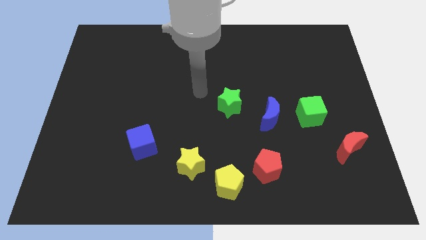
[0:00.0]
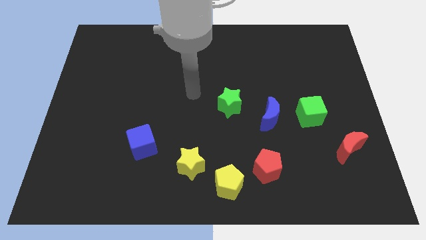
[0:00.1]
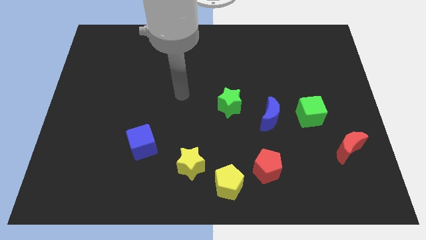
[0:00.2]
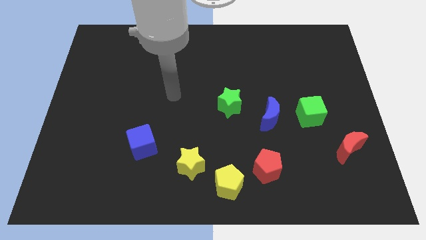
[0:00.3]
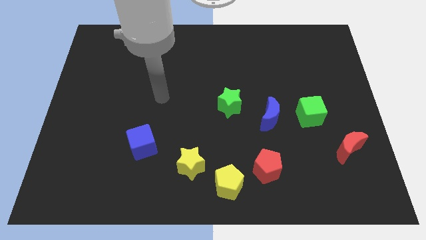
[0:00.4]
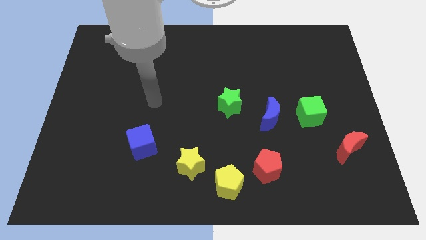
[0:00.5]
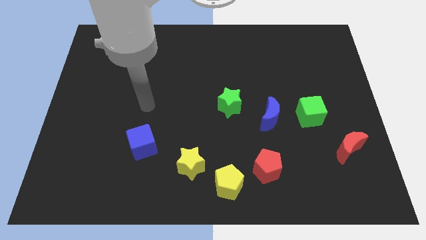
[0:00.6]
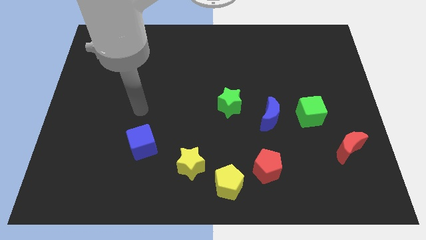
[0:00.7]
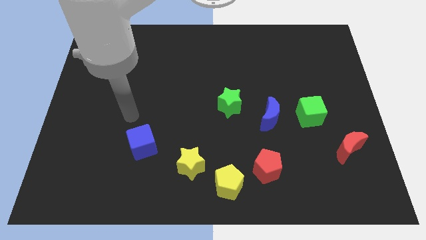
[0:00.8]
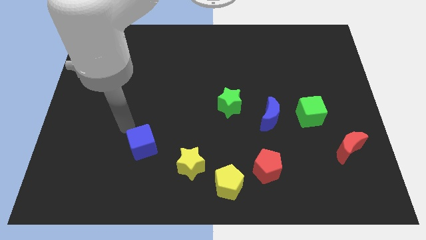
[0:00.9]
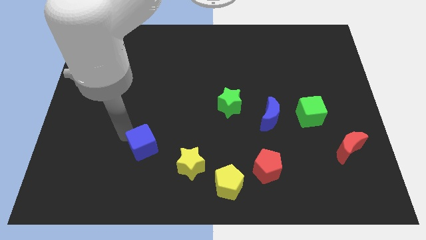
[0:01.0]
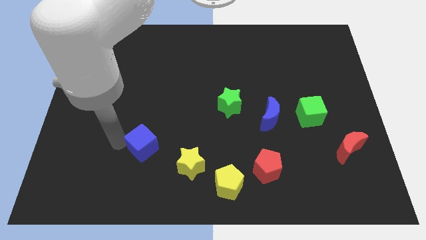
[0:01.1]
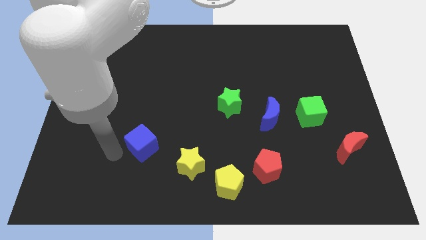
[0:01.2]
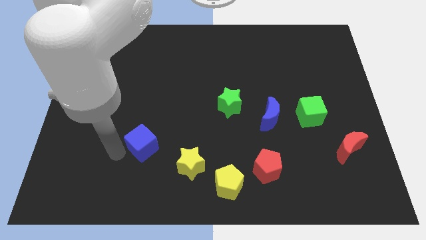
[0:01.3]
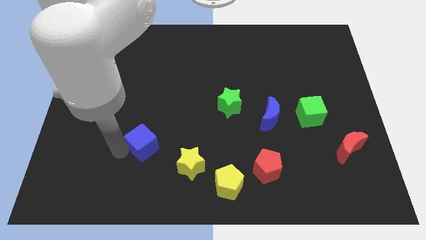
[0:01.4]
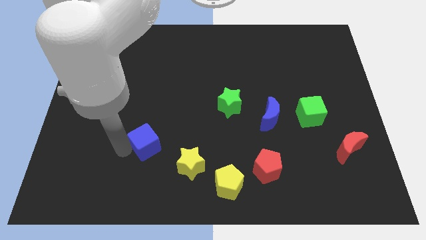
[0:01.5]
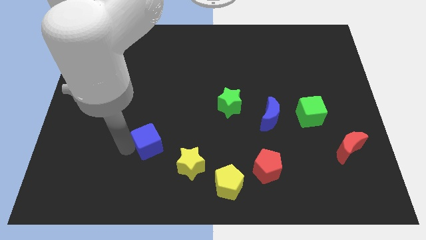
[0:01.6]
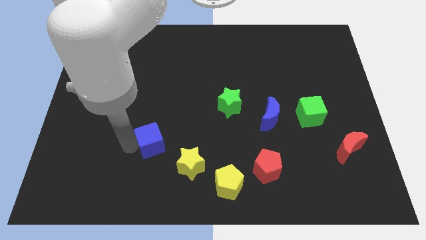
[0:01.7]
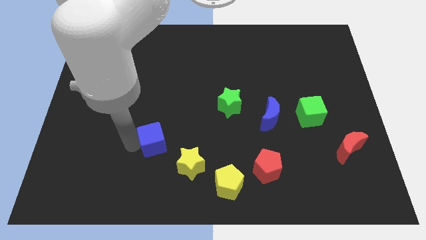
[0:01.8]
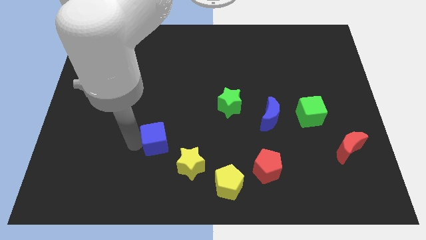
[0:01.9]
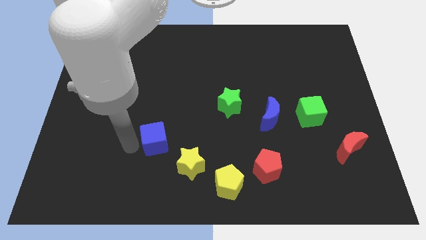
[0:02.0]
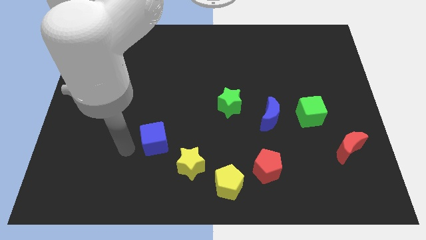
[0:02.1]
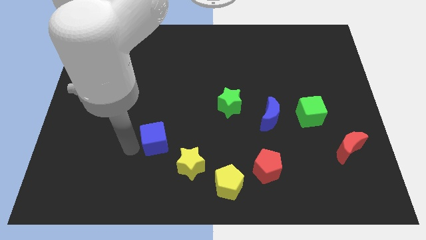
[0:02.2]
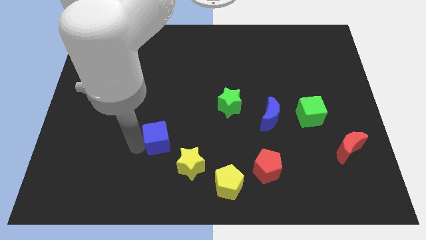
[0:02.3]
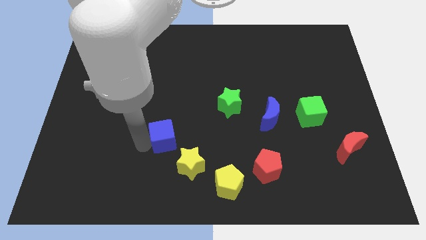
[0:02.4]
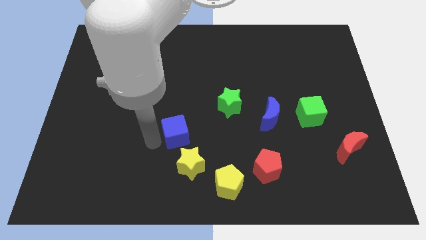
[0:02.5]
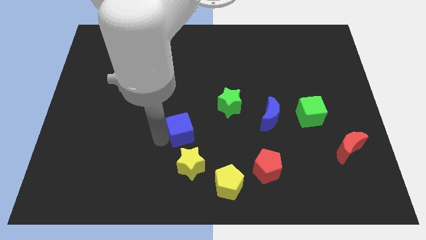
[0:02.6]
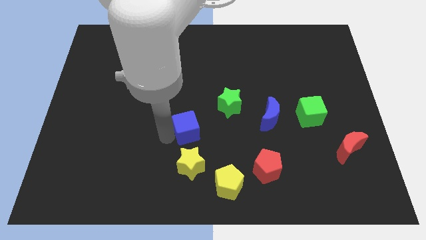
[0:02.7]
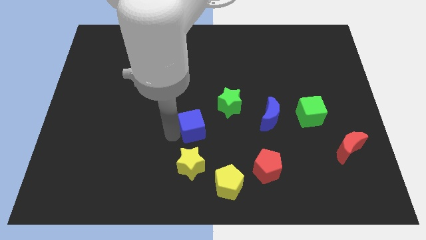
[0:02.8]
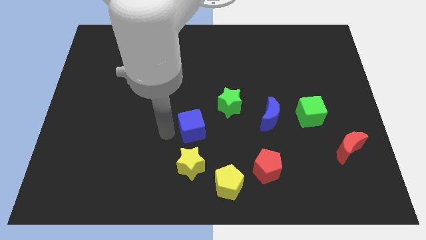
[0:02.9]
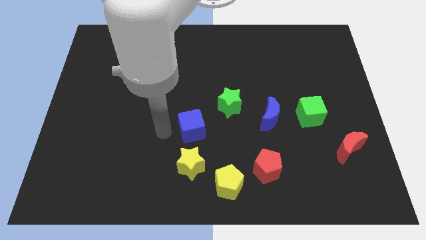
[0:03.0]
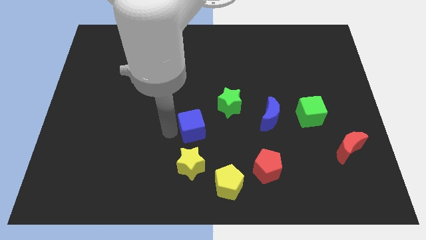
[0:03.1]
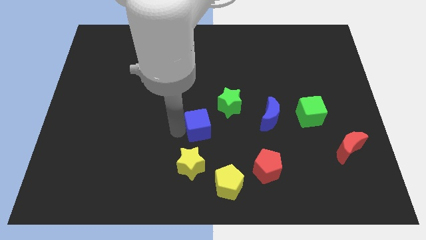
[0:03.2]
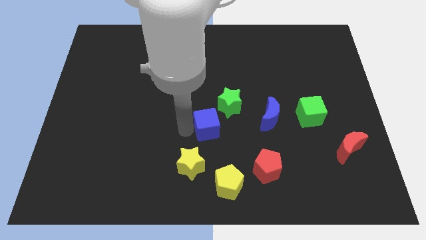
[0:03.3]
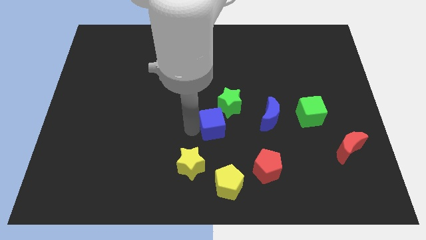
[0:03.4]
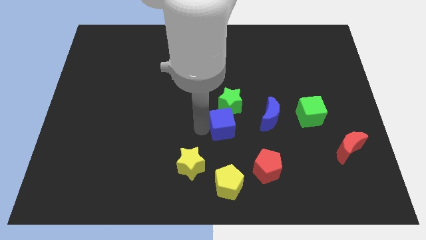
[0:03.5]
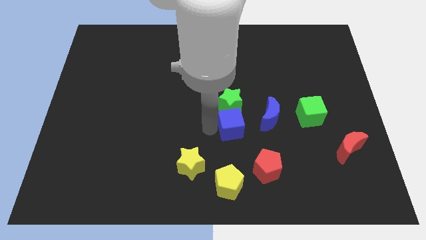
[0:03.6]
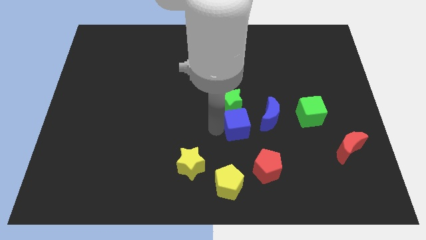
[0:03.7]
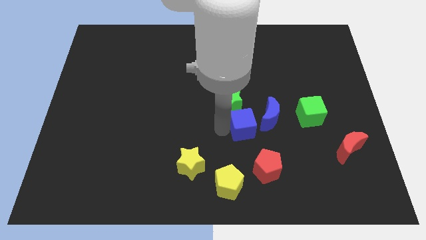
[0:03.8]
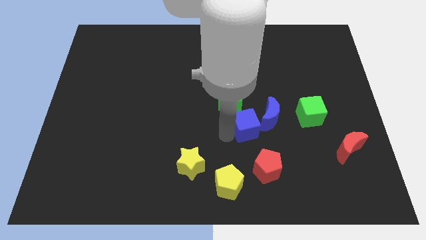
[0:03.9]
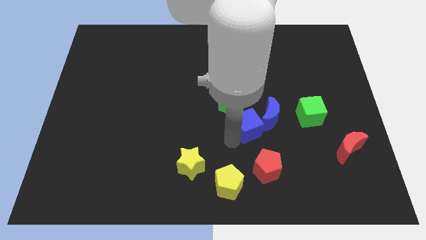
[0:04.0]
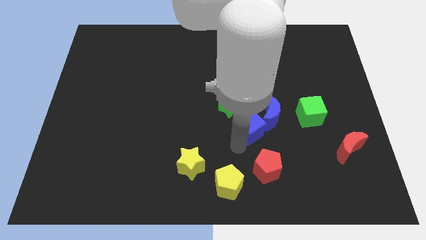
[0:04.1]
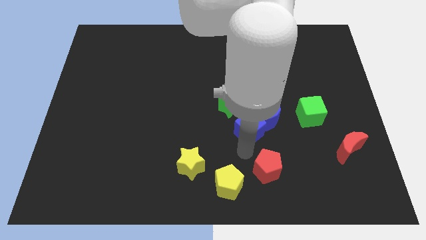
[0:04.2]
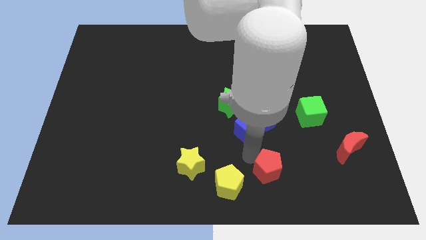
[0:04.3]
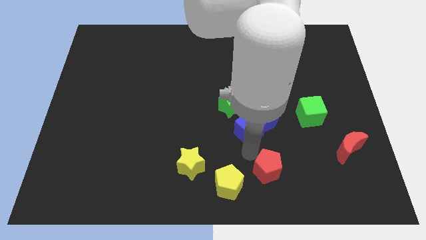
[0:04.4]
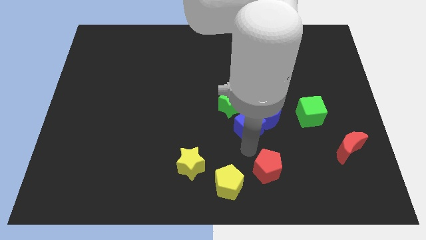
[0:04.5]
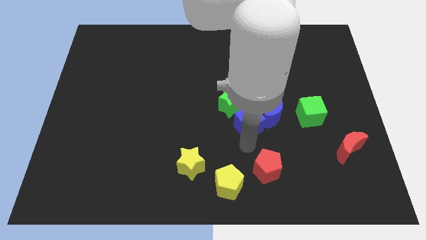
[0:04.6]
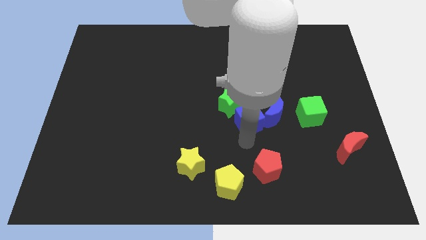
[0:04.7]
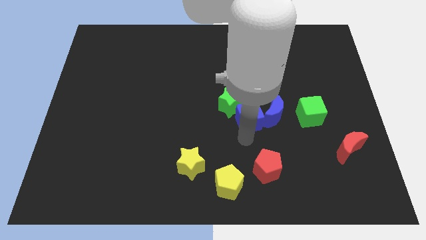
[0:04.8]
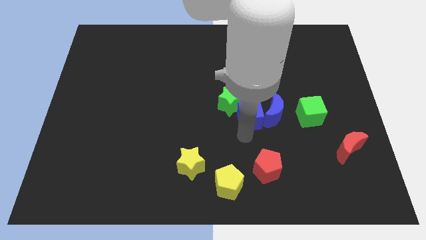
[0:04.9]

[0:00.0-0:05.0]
put the blue cube to the top left side of the blue moon

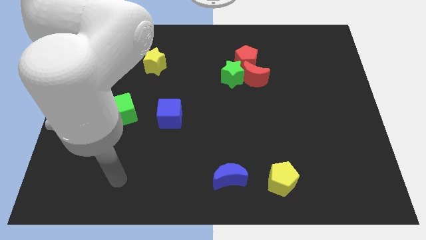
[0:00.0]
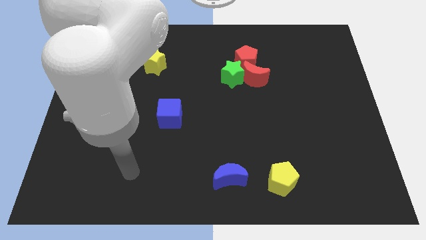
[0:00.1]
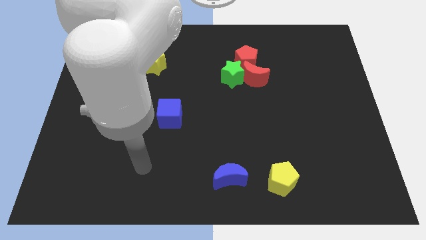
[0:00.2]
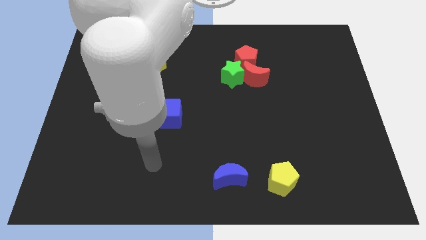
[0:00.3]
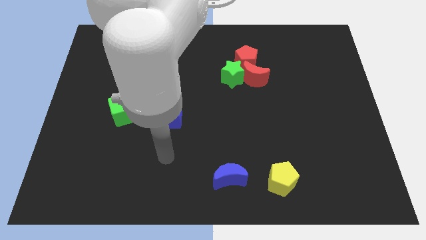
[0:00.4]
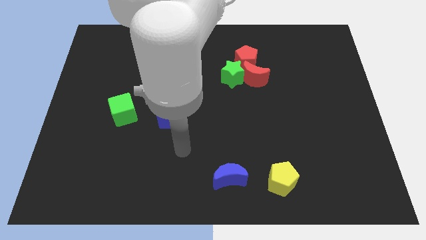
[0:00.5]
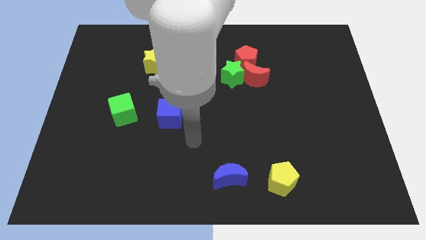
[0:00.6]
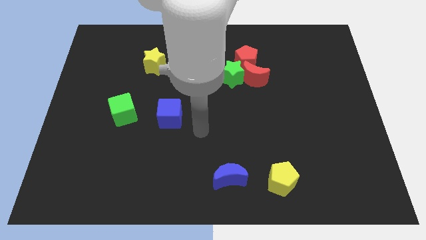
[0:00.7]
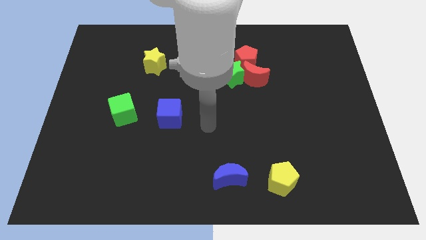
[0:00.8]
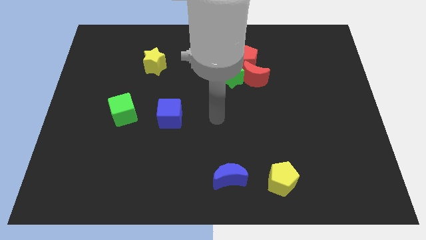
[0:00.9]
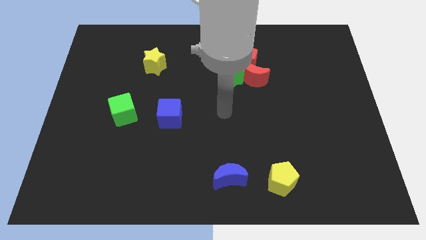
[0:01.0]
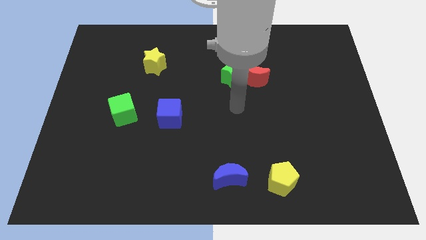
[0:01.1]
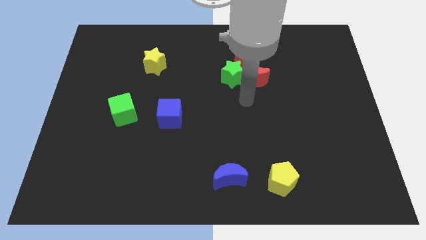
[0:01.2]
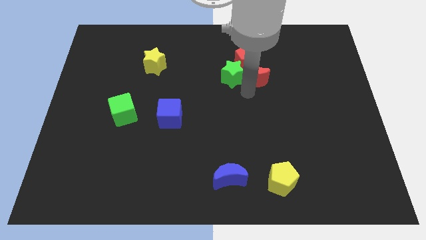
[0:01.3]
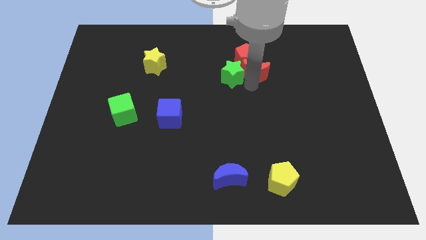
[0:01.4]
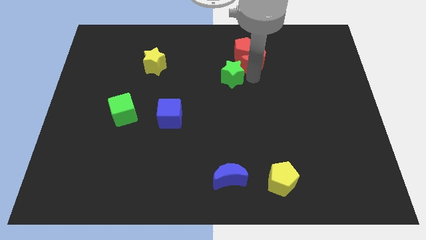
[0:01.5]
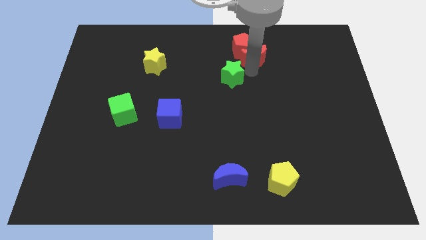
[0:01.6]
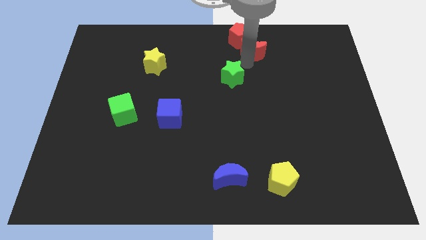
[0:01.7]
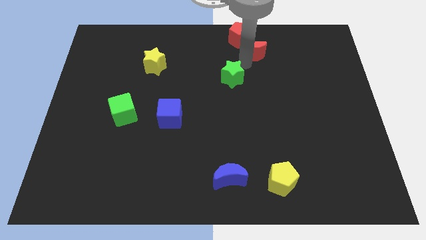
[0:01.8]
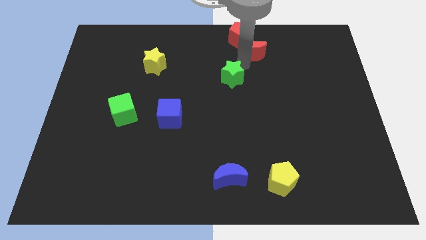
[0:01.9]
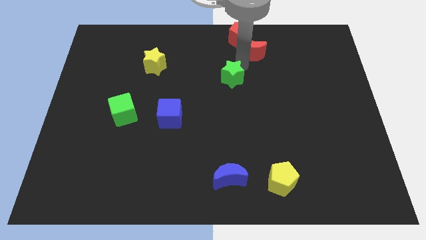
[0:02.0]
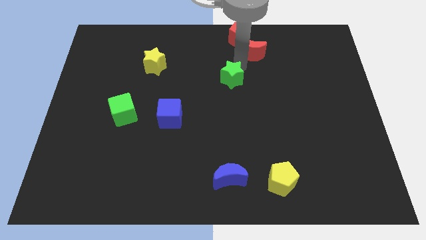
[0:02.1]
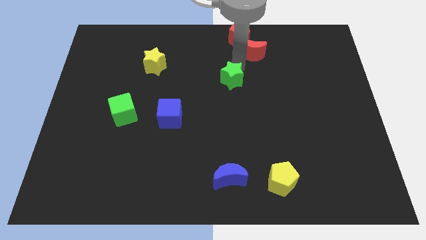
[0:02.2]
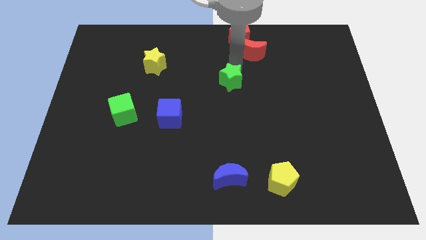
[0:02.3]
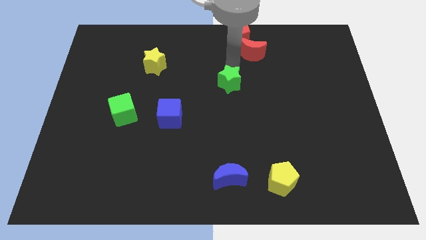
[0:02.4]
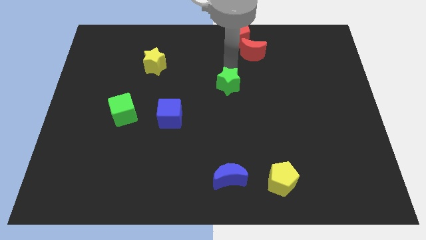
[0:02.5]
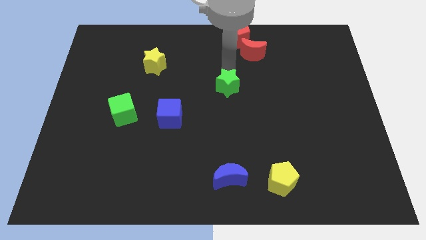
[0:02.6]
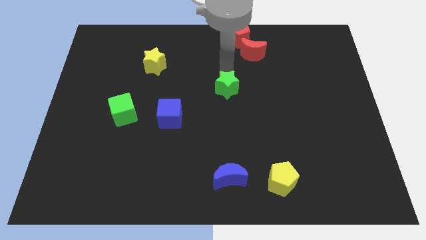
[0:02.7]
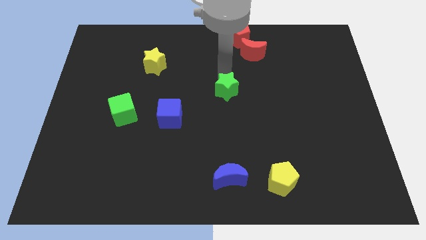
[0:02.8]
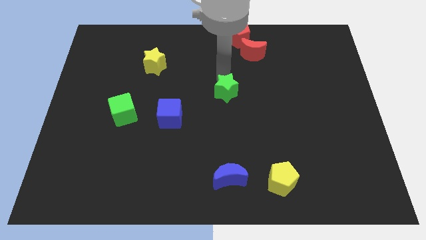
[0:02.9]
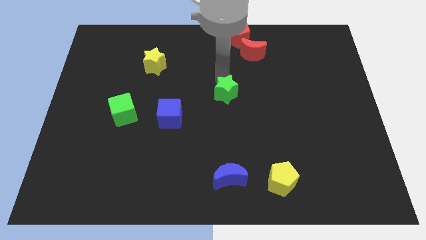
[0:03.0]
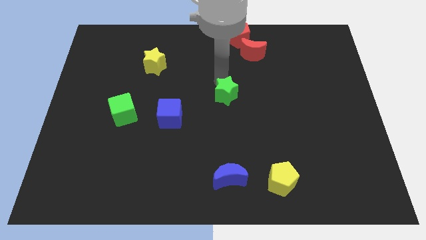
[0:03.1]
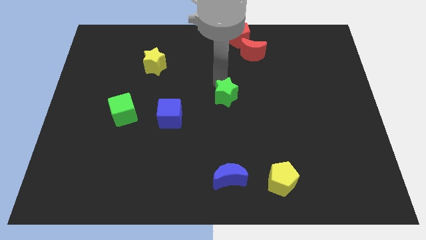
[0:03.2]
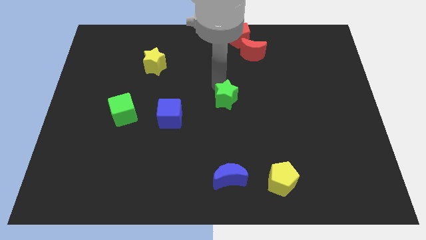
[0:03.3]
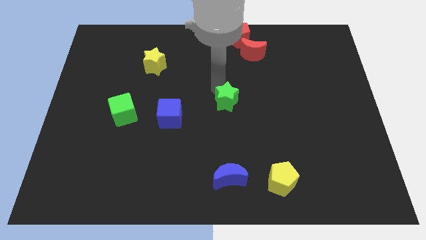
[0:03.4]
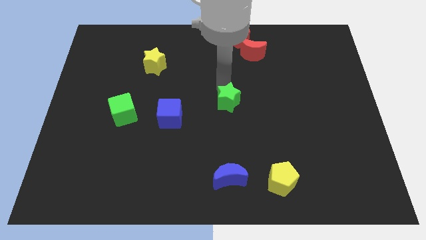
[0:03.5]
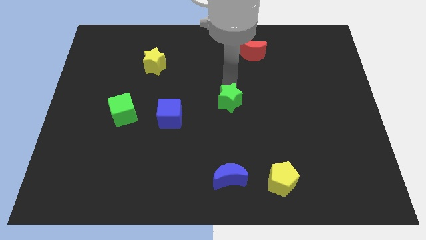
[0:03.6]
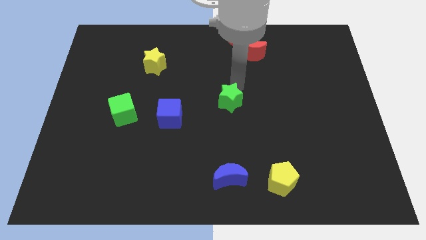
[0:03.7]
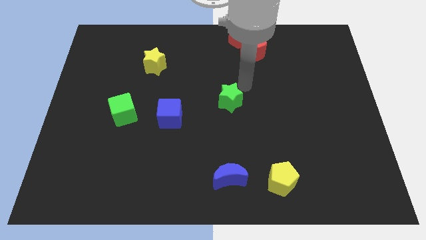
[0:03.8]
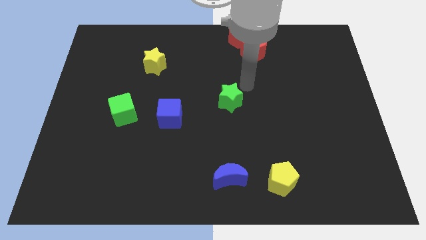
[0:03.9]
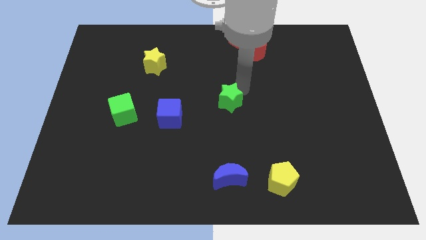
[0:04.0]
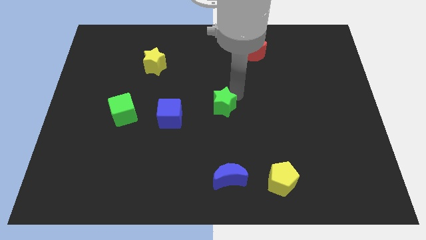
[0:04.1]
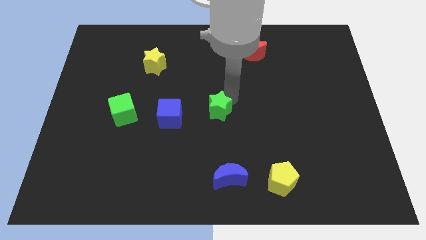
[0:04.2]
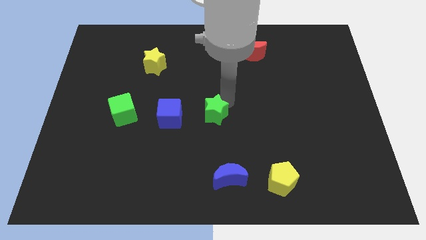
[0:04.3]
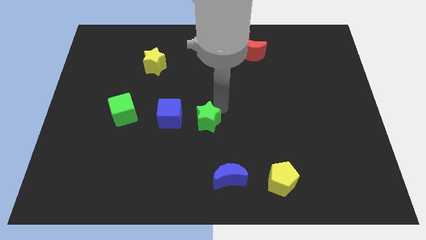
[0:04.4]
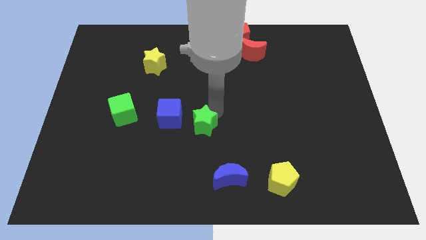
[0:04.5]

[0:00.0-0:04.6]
move the green star diagonally down and to the right of the blue cube
